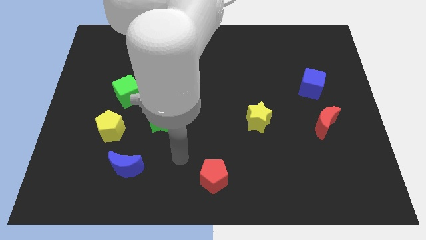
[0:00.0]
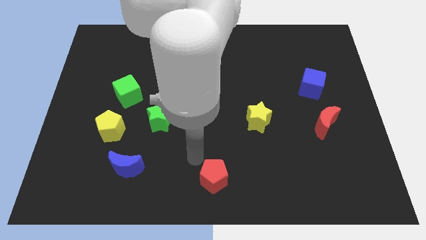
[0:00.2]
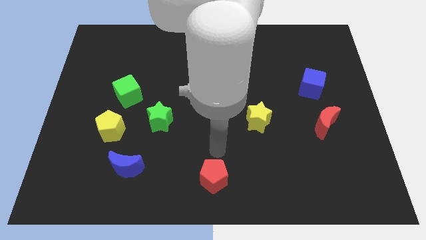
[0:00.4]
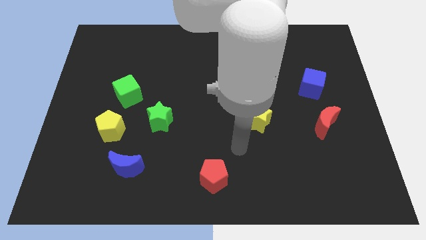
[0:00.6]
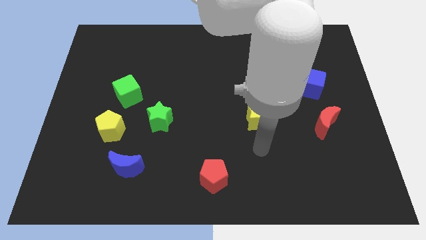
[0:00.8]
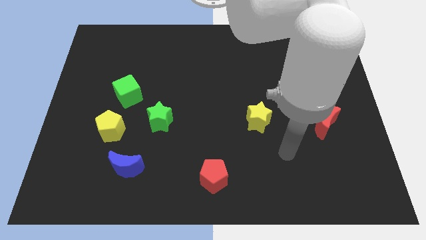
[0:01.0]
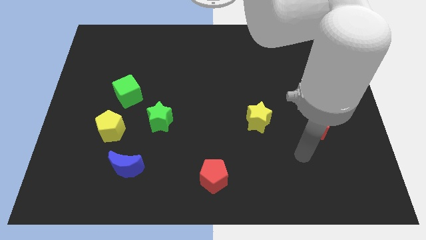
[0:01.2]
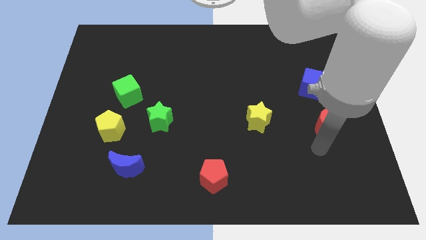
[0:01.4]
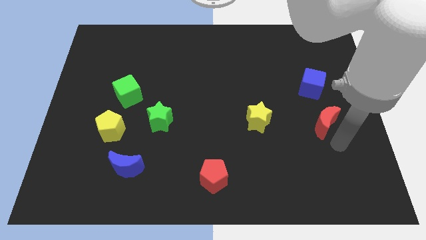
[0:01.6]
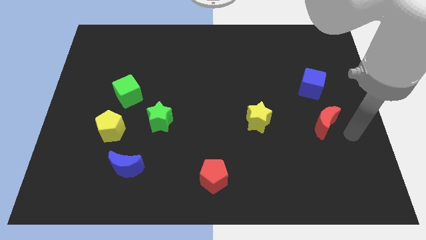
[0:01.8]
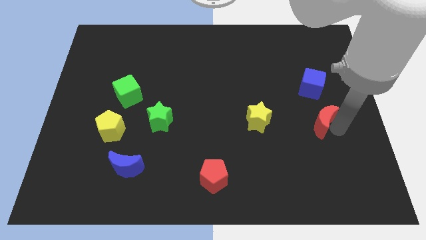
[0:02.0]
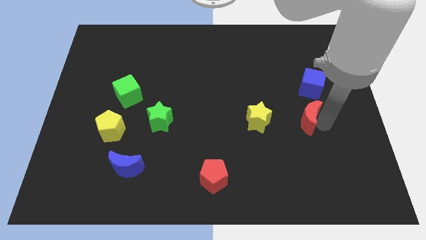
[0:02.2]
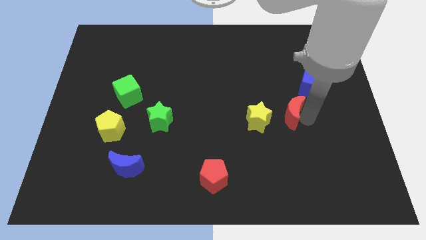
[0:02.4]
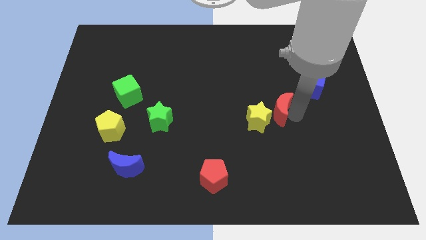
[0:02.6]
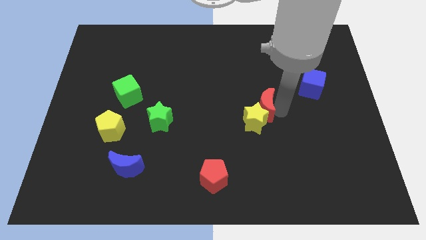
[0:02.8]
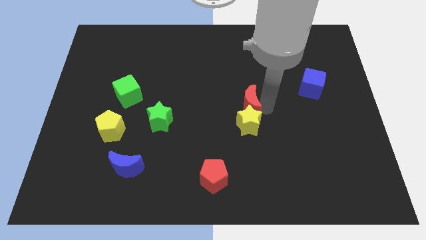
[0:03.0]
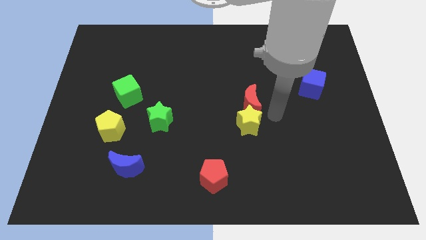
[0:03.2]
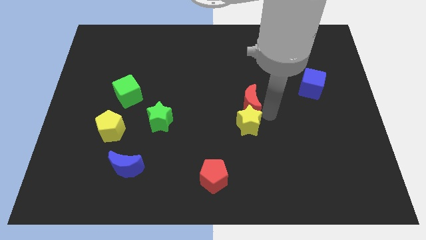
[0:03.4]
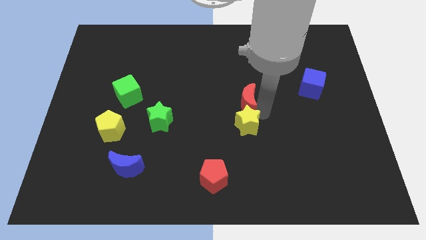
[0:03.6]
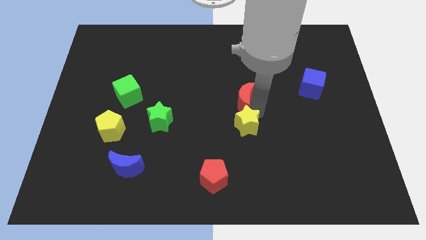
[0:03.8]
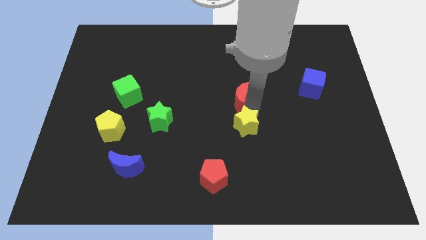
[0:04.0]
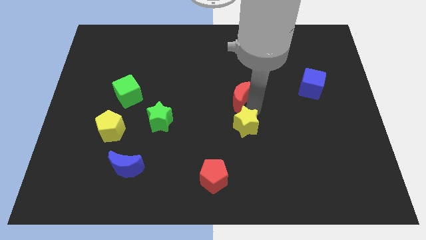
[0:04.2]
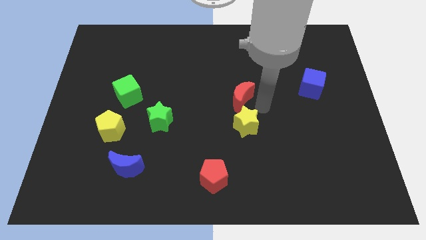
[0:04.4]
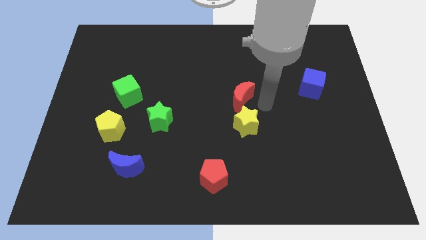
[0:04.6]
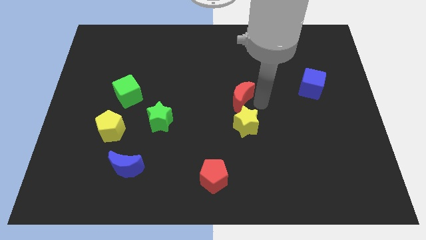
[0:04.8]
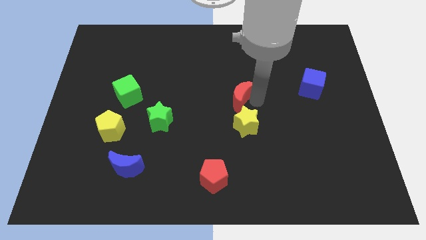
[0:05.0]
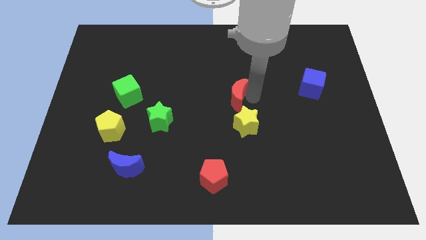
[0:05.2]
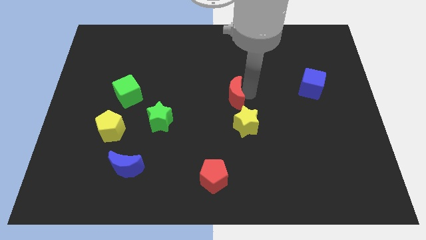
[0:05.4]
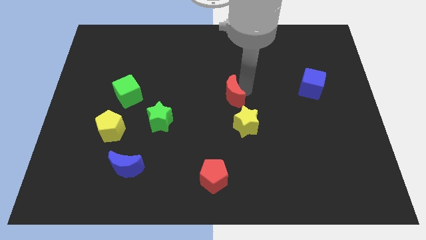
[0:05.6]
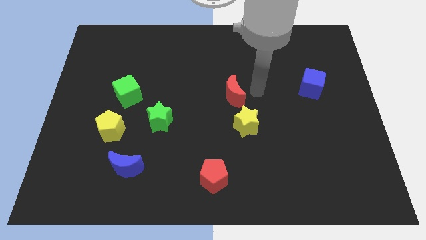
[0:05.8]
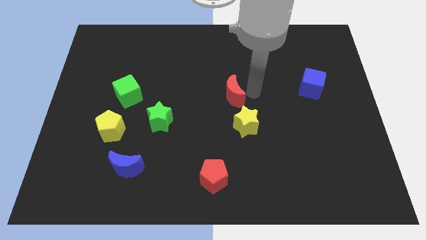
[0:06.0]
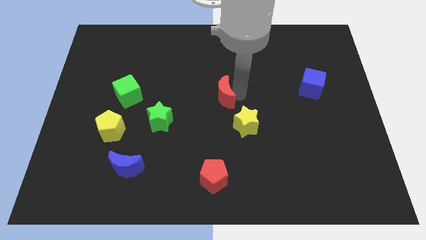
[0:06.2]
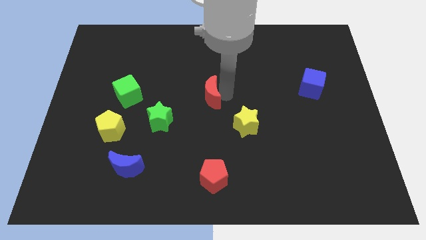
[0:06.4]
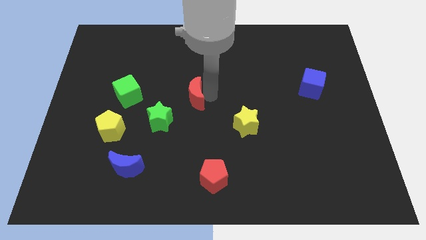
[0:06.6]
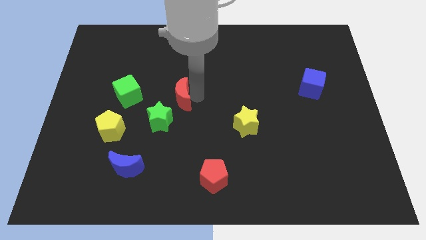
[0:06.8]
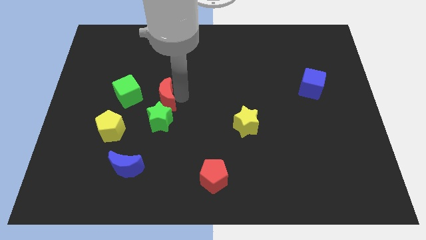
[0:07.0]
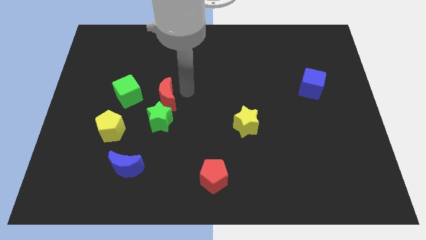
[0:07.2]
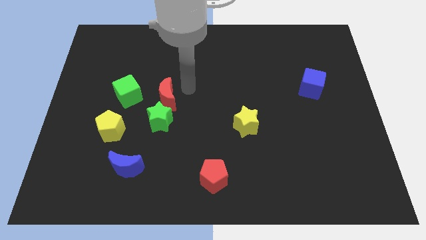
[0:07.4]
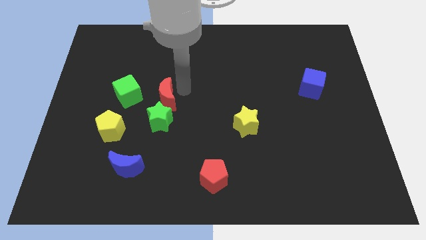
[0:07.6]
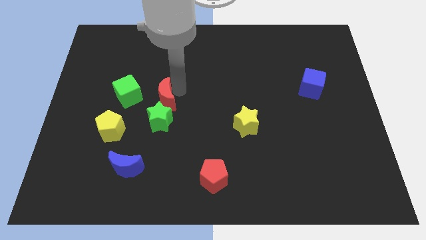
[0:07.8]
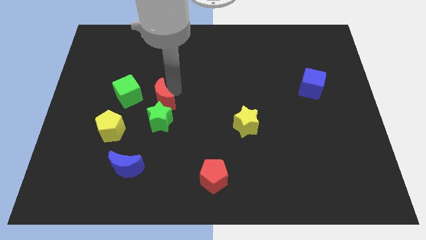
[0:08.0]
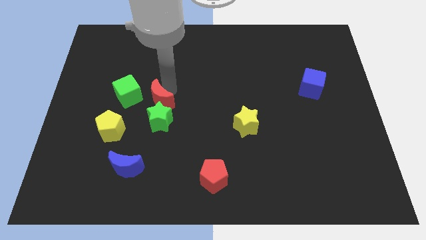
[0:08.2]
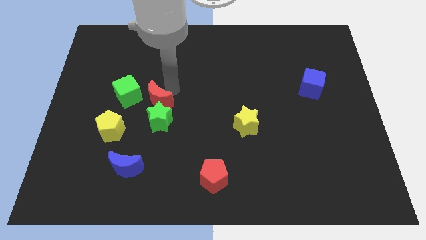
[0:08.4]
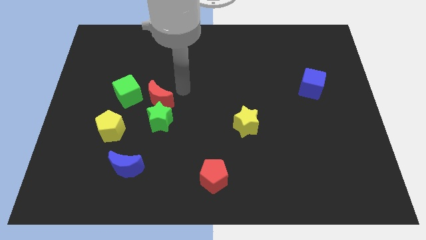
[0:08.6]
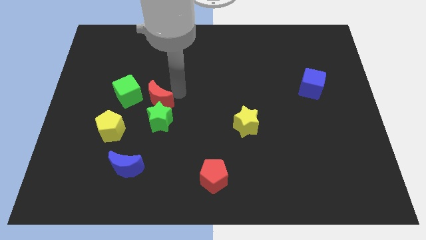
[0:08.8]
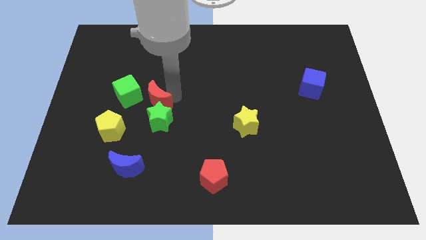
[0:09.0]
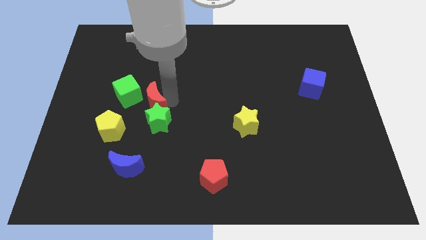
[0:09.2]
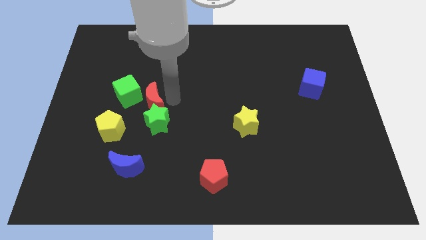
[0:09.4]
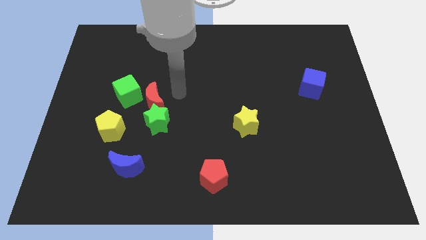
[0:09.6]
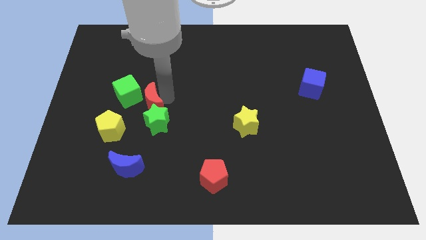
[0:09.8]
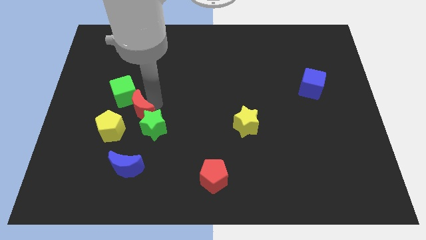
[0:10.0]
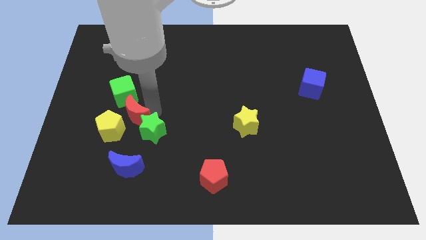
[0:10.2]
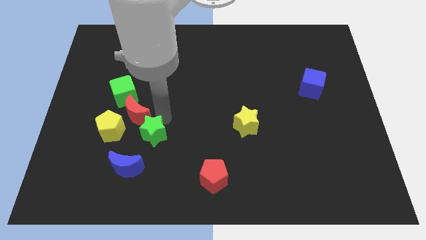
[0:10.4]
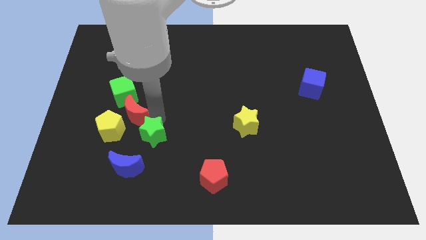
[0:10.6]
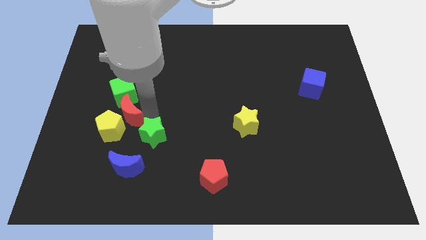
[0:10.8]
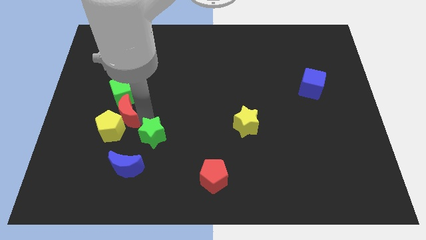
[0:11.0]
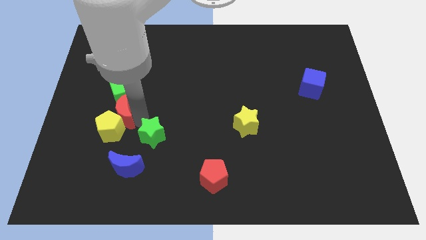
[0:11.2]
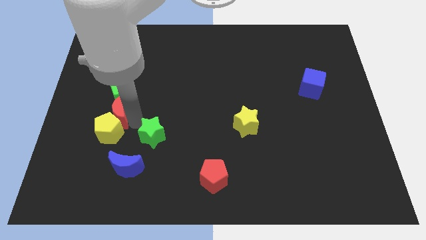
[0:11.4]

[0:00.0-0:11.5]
push the red moon diagonally up and to the left of the yellow pentagon

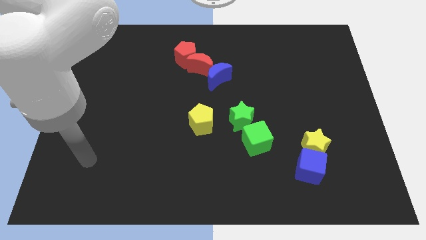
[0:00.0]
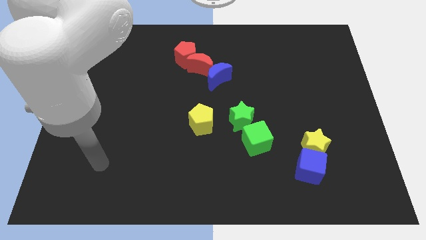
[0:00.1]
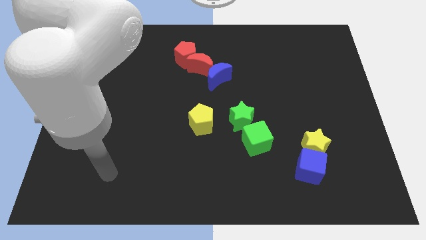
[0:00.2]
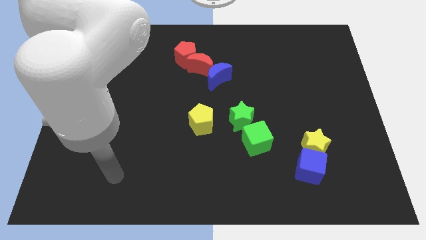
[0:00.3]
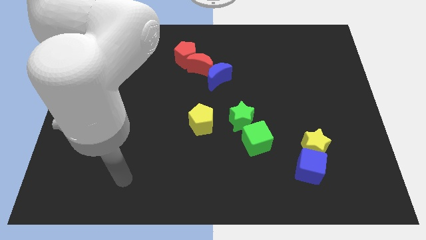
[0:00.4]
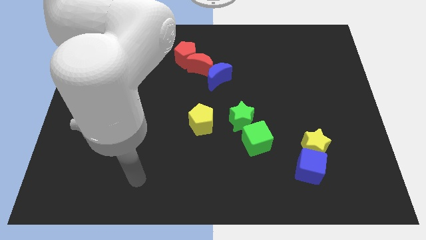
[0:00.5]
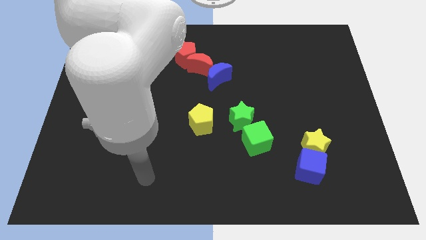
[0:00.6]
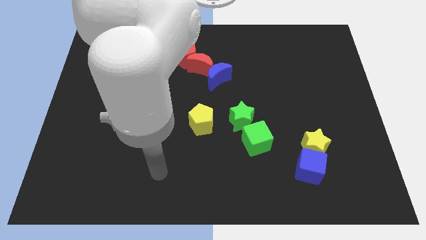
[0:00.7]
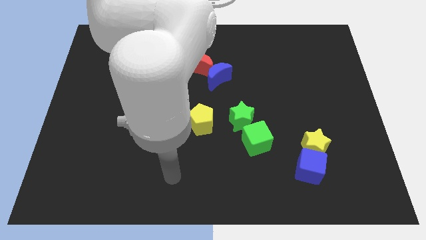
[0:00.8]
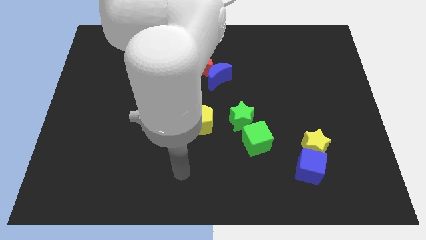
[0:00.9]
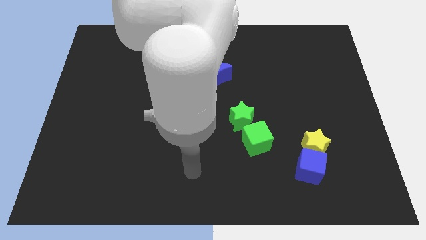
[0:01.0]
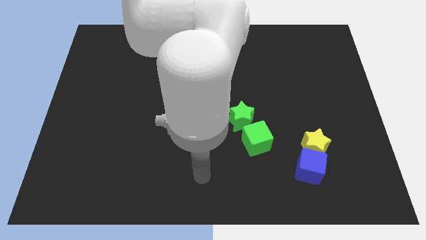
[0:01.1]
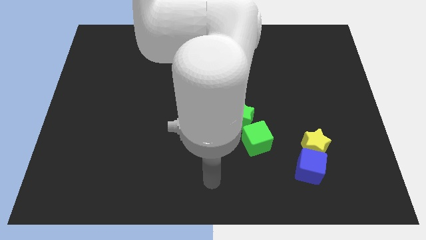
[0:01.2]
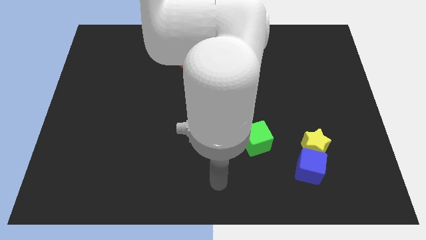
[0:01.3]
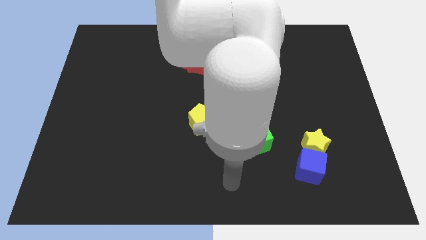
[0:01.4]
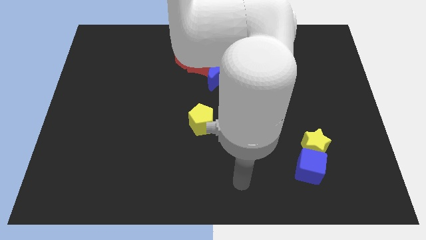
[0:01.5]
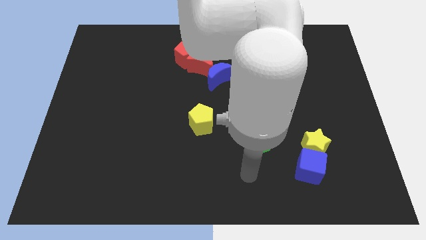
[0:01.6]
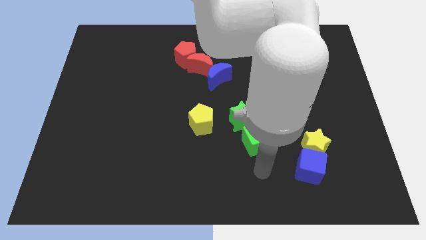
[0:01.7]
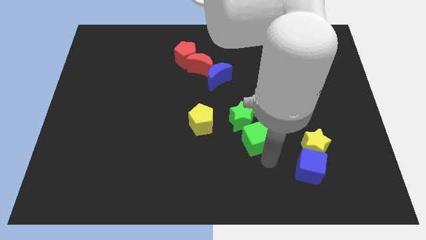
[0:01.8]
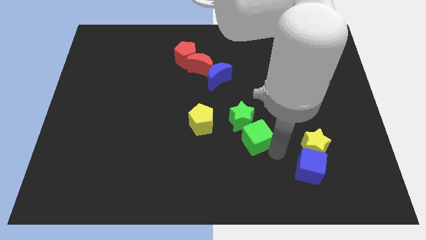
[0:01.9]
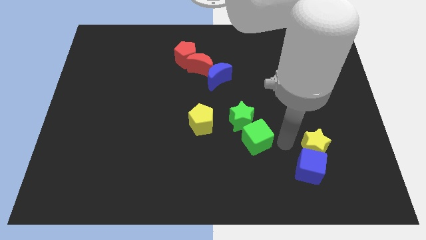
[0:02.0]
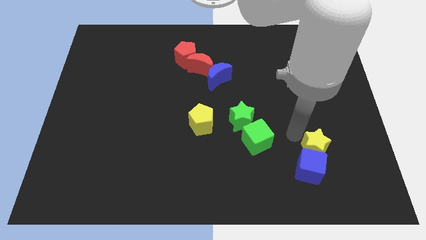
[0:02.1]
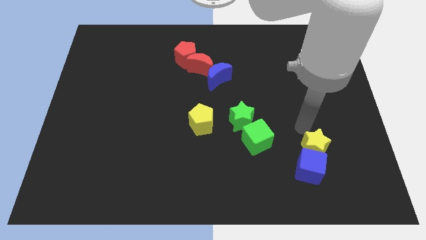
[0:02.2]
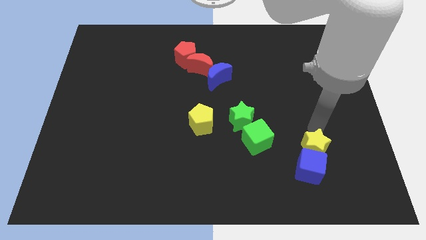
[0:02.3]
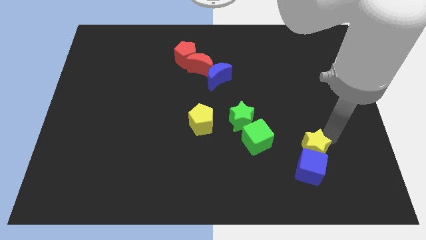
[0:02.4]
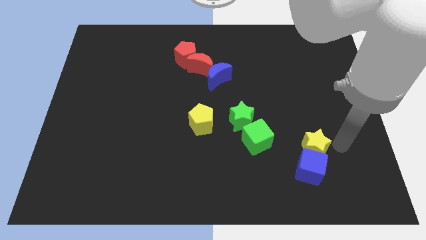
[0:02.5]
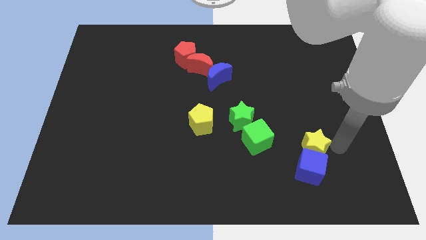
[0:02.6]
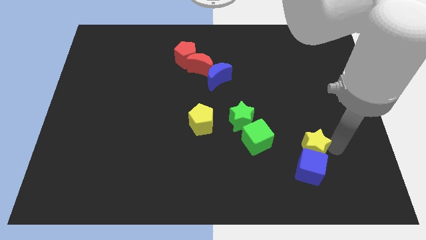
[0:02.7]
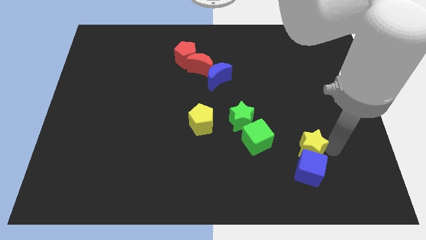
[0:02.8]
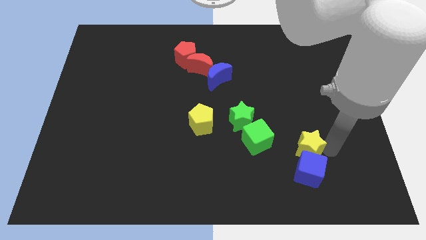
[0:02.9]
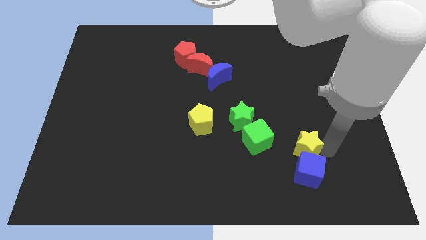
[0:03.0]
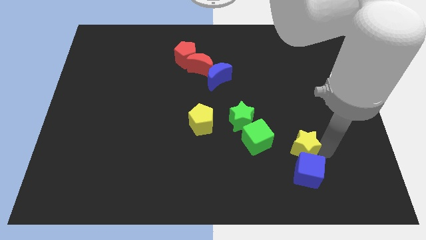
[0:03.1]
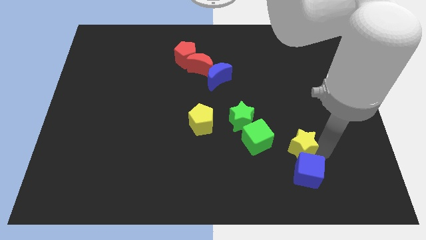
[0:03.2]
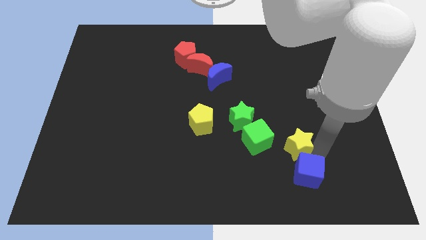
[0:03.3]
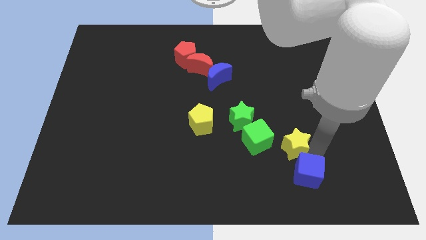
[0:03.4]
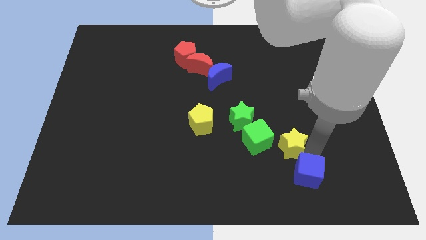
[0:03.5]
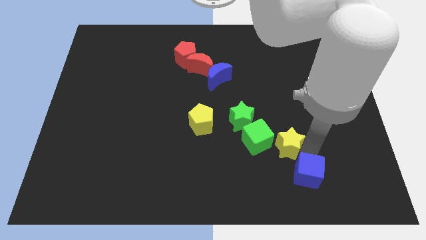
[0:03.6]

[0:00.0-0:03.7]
move the yellow star to the bottom right of the green star
